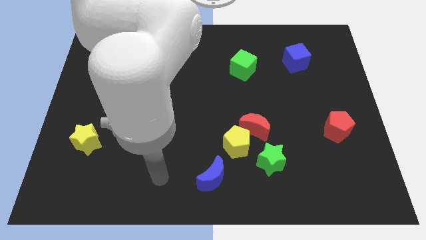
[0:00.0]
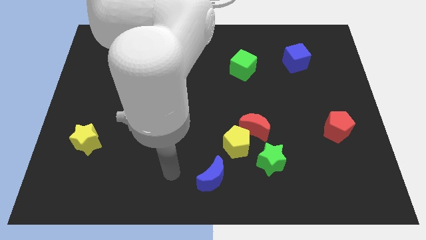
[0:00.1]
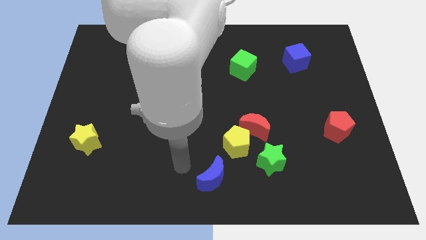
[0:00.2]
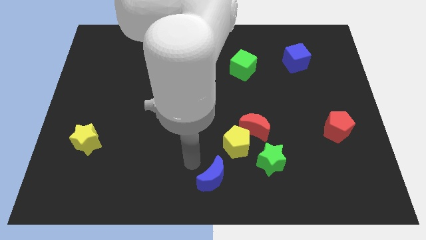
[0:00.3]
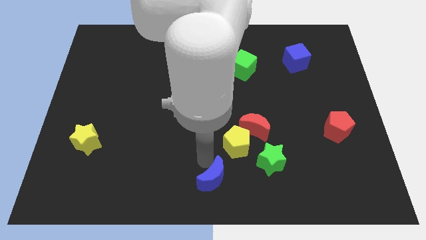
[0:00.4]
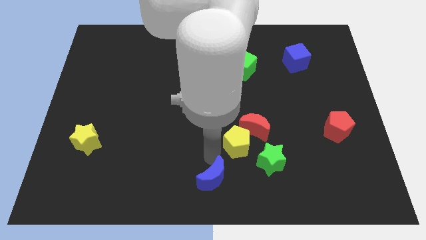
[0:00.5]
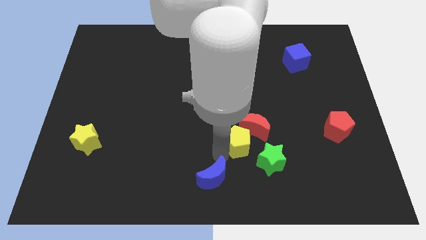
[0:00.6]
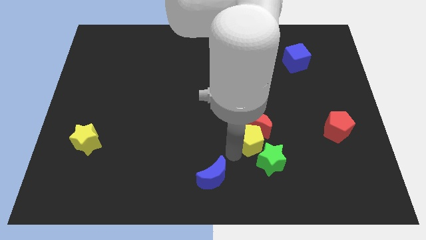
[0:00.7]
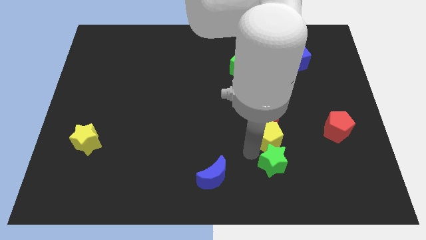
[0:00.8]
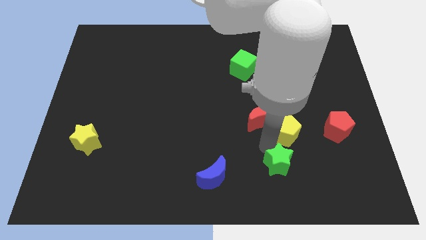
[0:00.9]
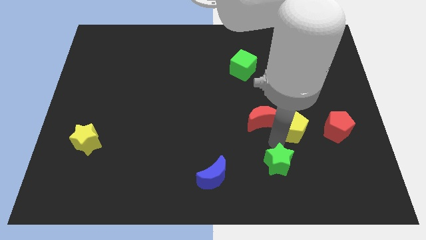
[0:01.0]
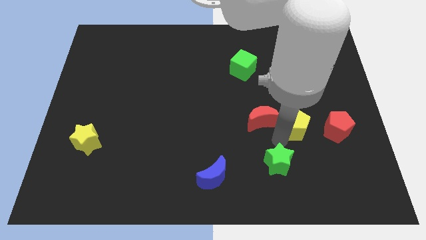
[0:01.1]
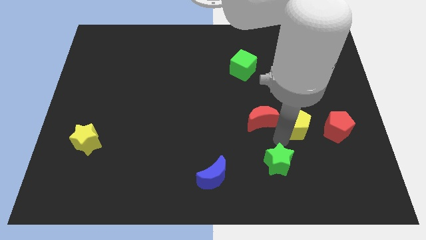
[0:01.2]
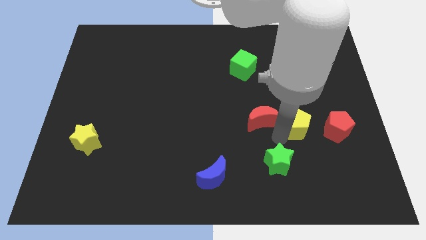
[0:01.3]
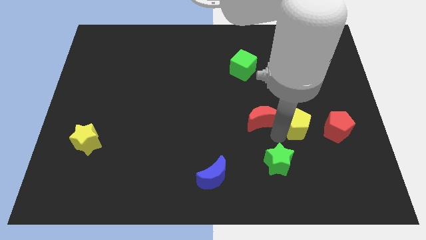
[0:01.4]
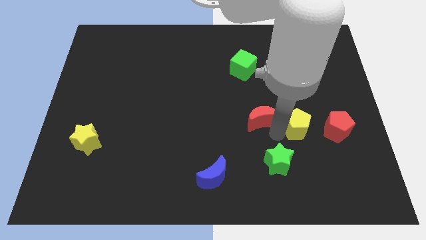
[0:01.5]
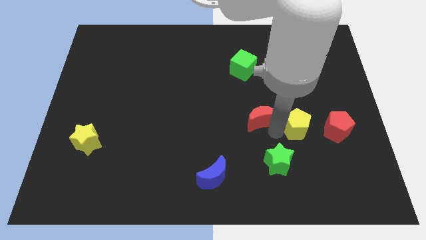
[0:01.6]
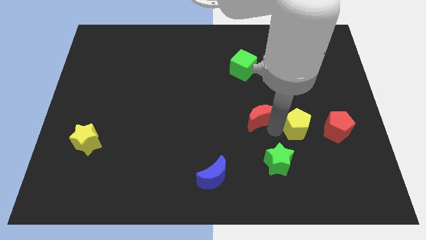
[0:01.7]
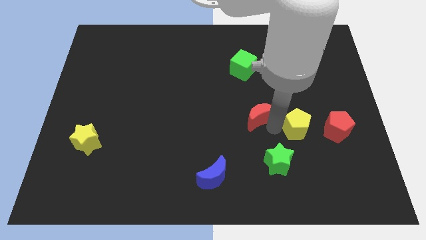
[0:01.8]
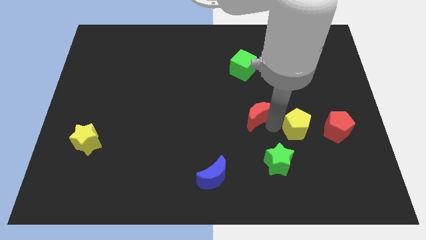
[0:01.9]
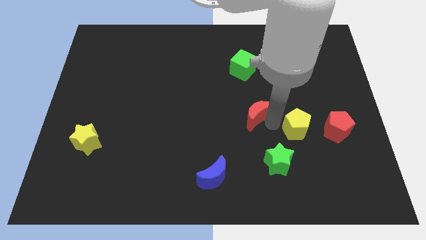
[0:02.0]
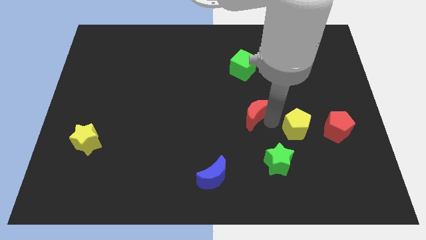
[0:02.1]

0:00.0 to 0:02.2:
separate the red moon from the yellow pentagon and green star

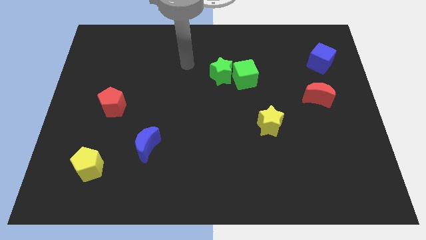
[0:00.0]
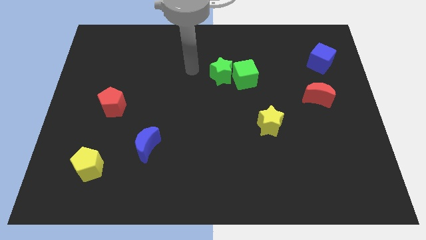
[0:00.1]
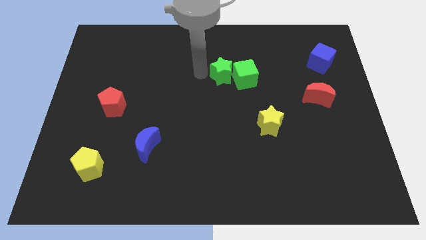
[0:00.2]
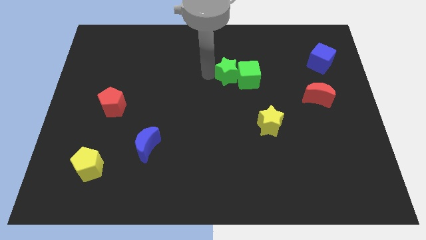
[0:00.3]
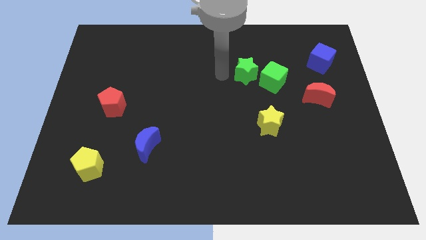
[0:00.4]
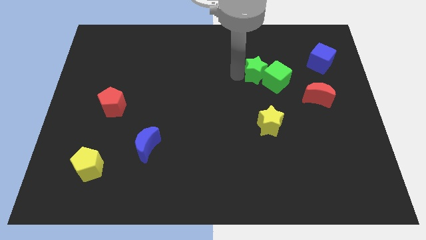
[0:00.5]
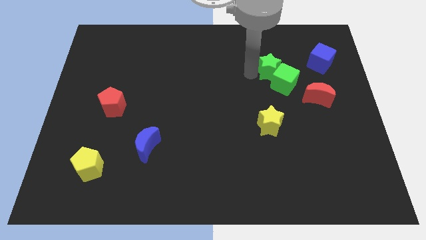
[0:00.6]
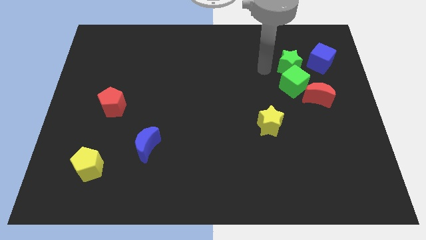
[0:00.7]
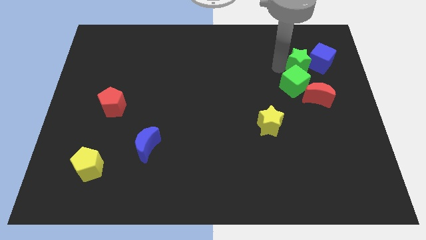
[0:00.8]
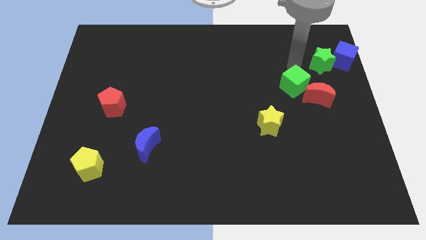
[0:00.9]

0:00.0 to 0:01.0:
separate the green cube from the green star

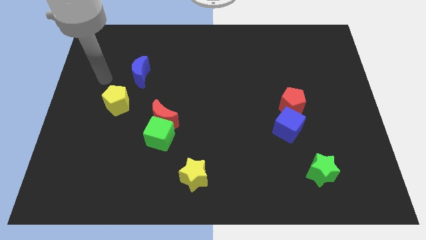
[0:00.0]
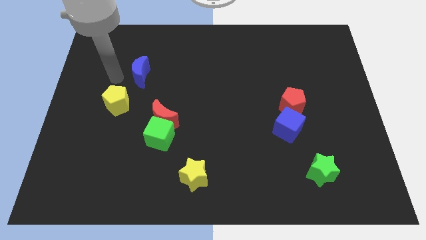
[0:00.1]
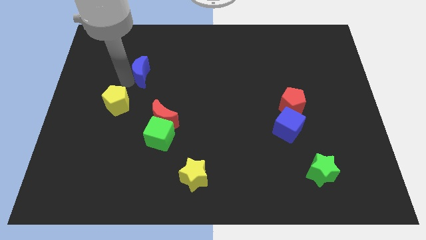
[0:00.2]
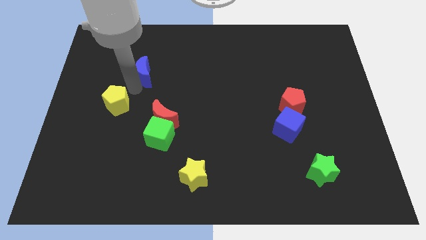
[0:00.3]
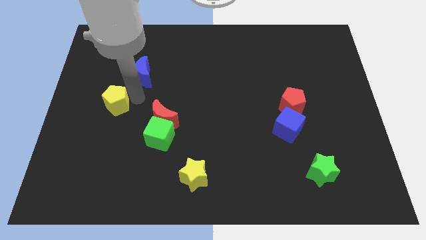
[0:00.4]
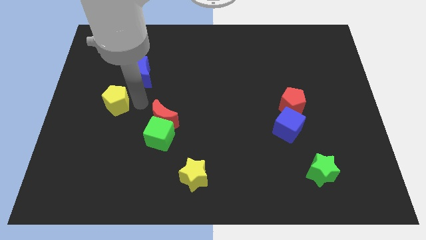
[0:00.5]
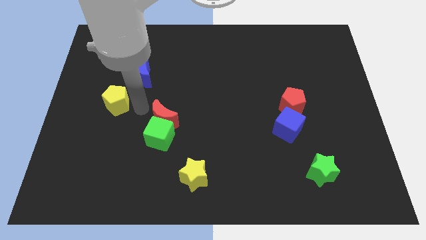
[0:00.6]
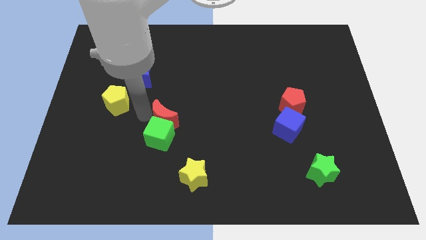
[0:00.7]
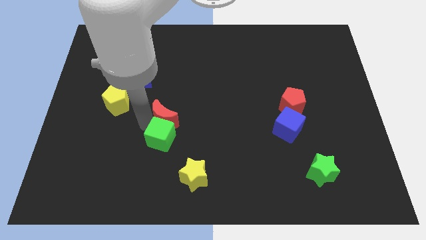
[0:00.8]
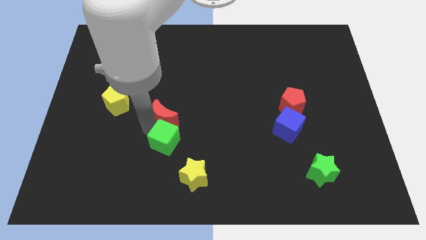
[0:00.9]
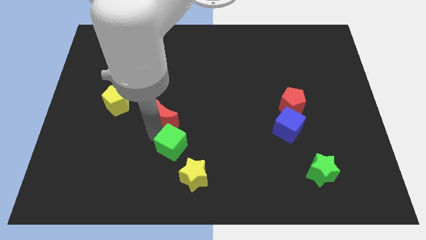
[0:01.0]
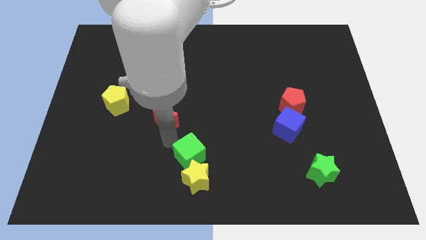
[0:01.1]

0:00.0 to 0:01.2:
pull the red moon apart from the green cube

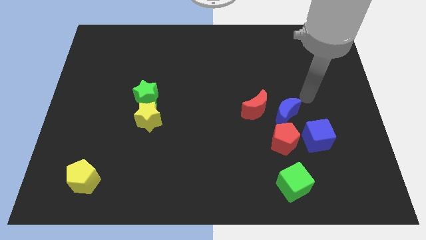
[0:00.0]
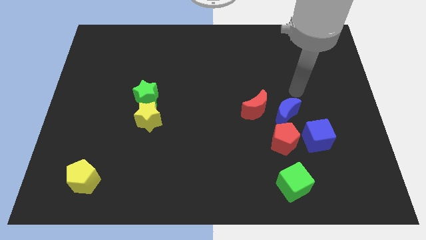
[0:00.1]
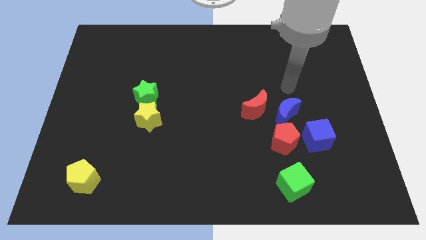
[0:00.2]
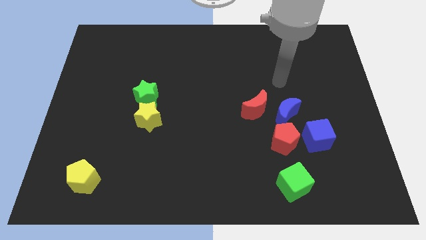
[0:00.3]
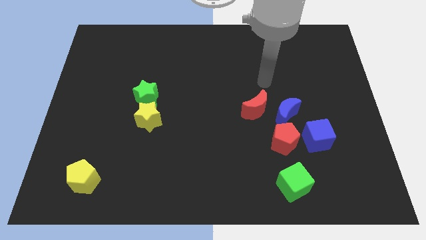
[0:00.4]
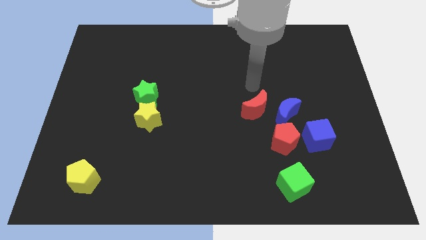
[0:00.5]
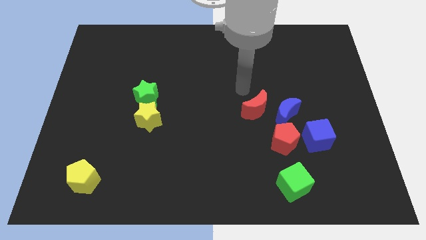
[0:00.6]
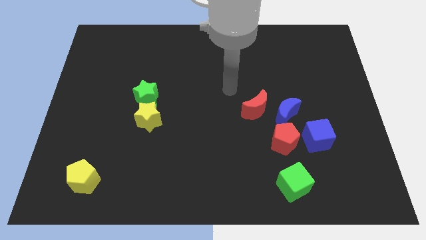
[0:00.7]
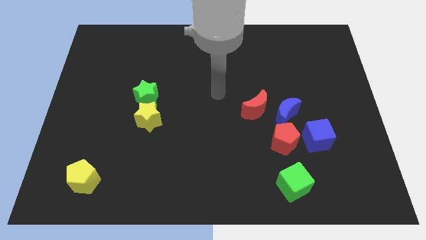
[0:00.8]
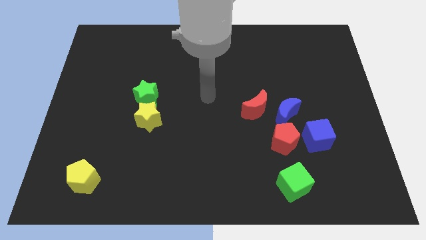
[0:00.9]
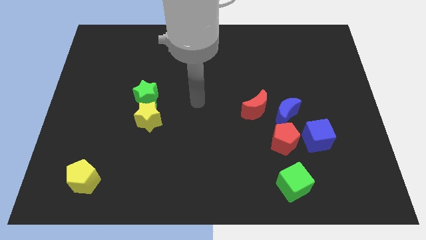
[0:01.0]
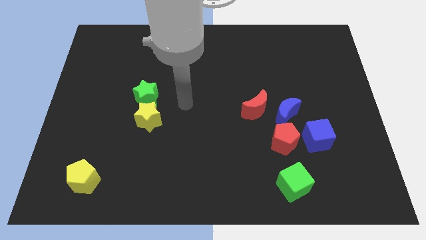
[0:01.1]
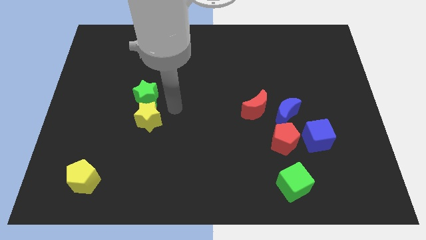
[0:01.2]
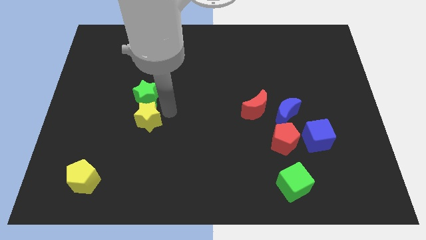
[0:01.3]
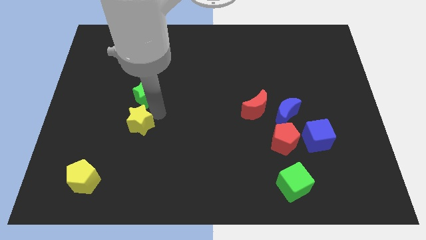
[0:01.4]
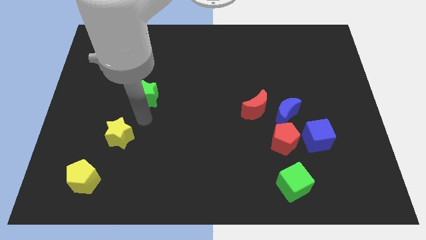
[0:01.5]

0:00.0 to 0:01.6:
pull the green star apart from the yellow star

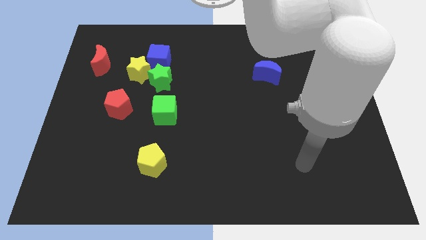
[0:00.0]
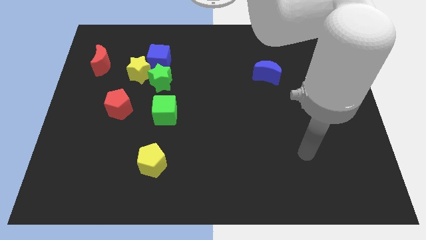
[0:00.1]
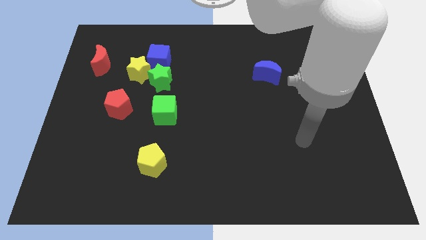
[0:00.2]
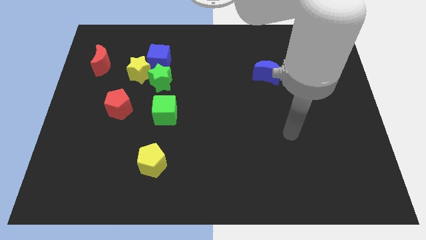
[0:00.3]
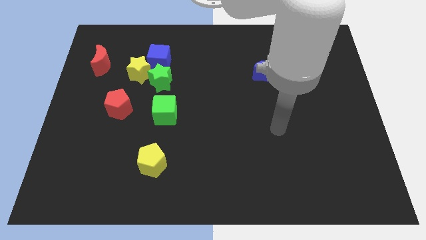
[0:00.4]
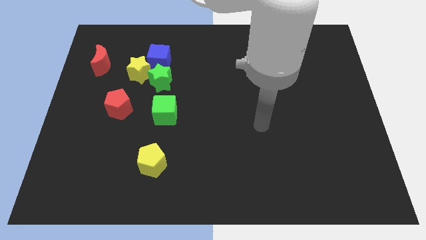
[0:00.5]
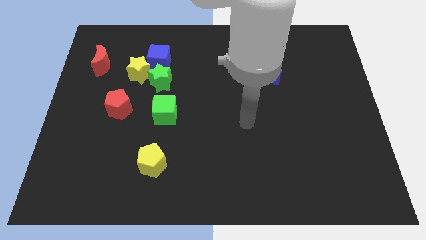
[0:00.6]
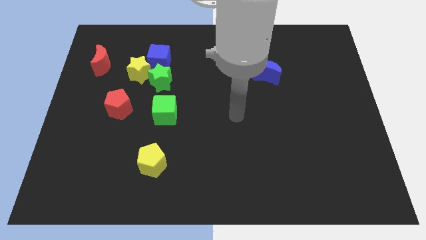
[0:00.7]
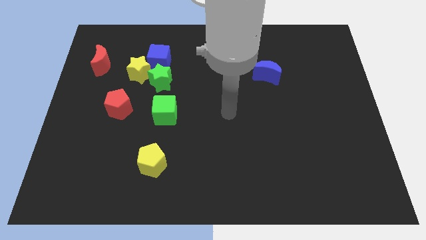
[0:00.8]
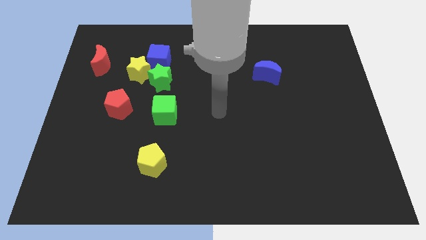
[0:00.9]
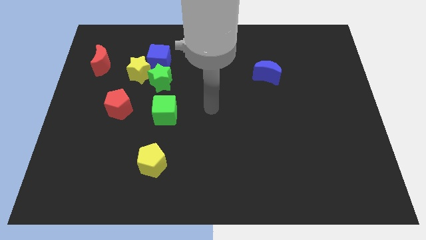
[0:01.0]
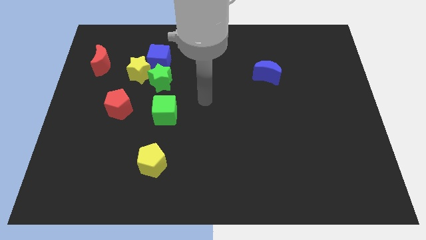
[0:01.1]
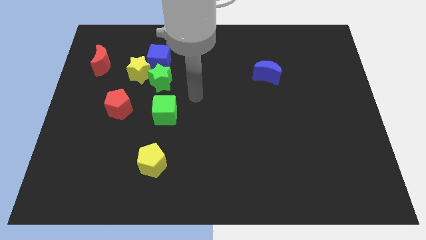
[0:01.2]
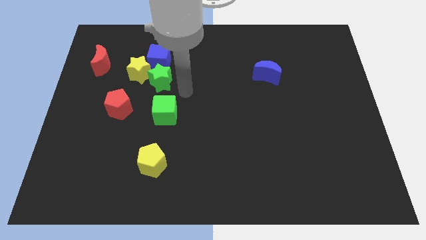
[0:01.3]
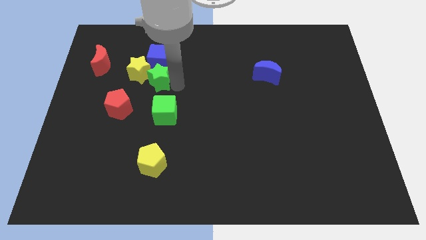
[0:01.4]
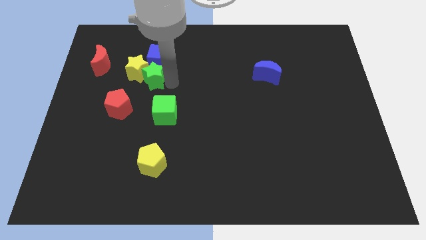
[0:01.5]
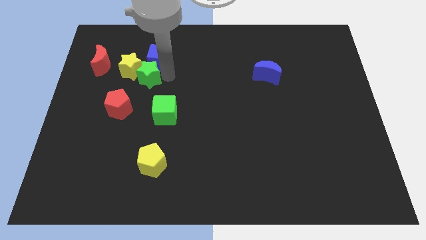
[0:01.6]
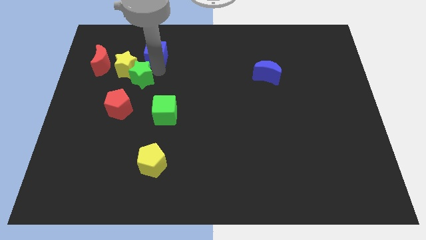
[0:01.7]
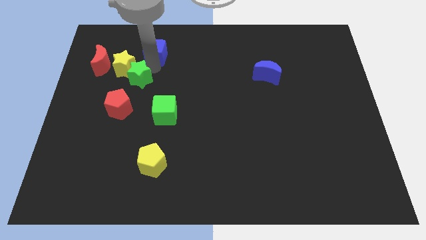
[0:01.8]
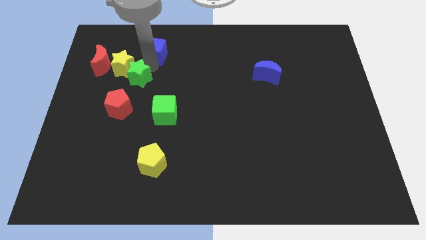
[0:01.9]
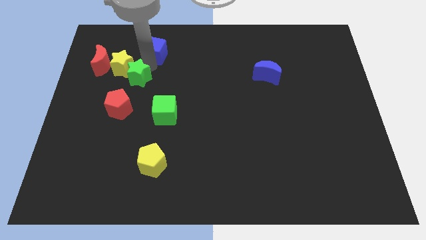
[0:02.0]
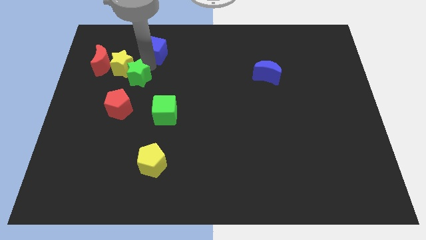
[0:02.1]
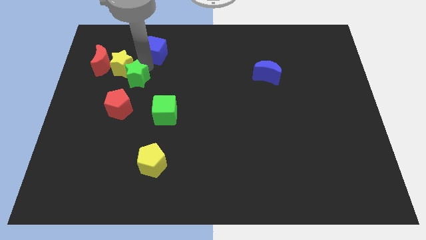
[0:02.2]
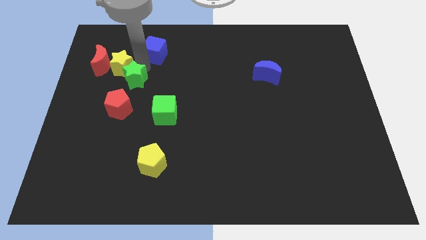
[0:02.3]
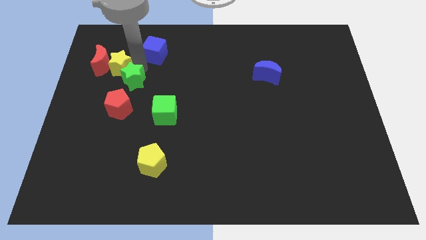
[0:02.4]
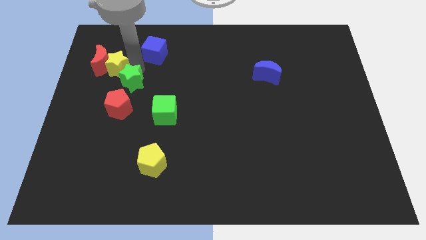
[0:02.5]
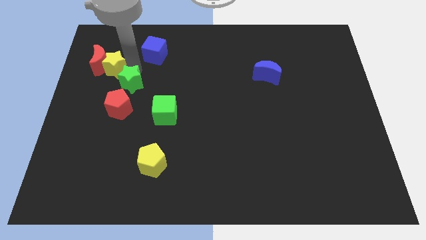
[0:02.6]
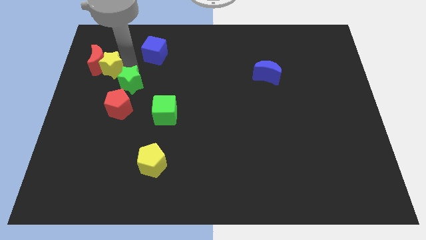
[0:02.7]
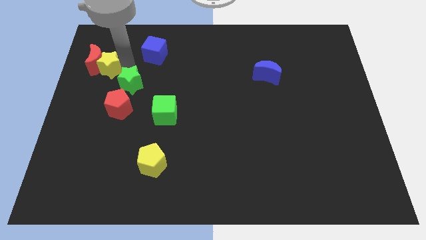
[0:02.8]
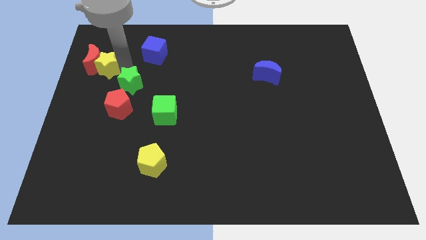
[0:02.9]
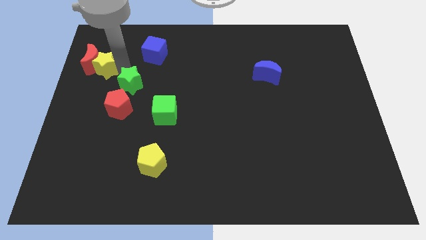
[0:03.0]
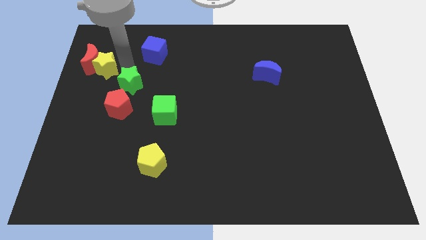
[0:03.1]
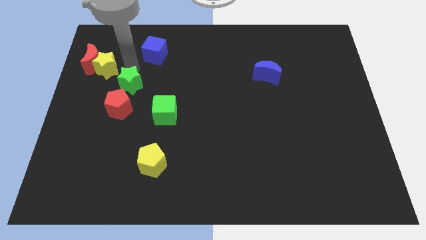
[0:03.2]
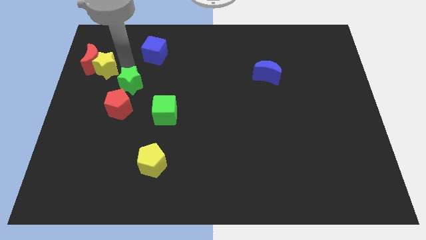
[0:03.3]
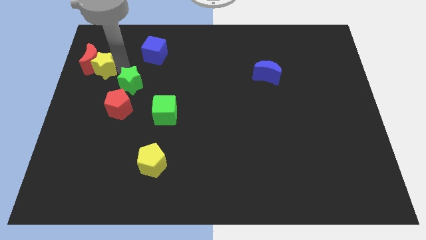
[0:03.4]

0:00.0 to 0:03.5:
separate the yellow star from the green star and blue cube

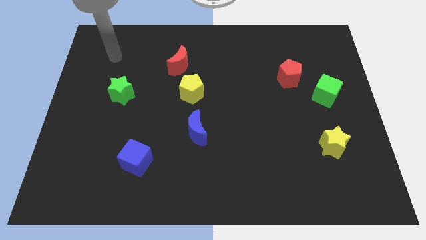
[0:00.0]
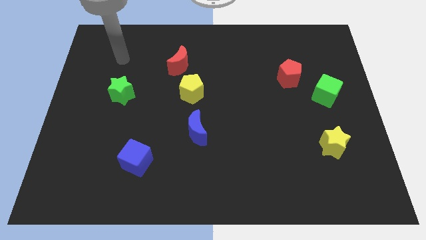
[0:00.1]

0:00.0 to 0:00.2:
separate the red pentagon from the green cube
